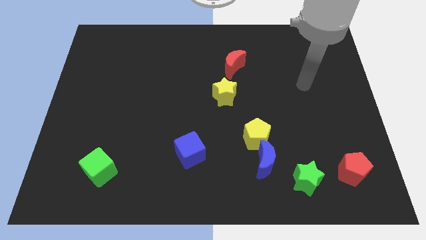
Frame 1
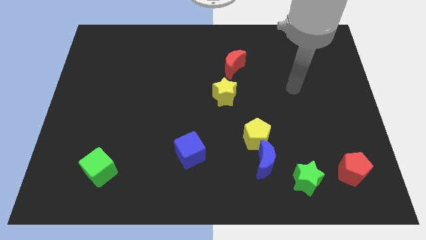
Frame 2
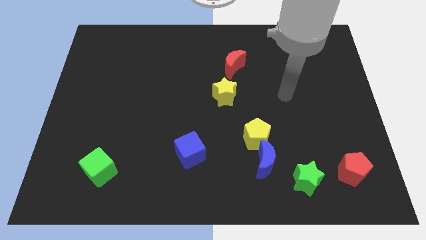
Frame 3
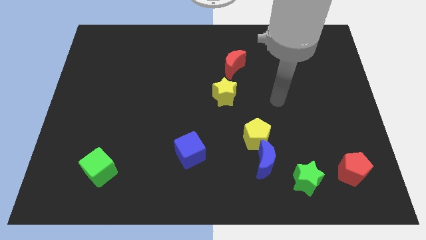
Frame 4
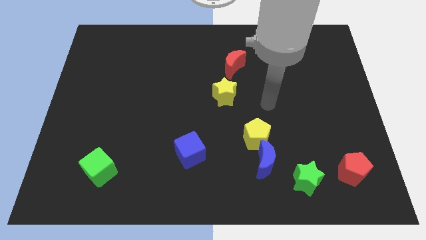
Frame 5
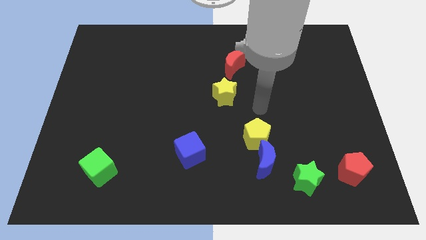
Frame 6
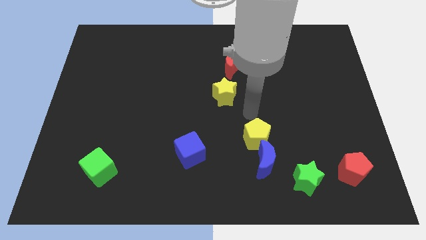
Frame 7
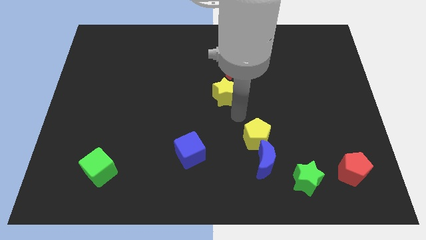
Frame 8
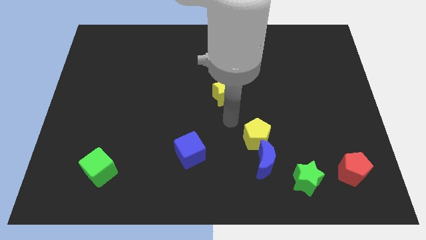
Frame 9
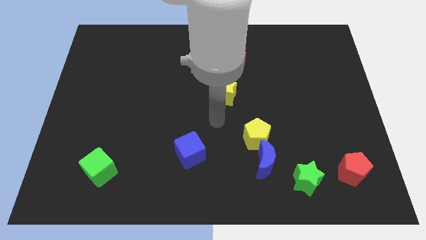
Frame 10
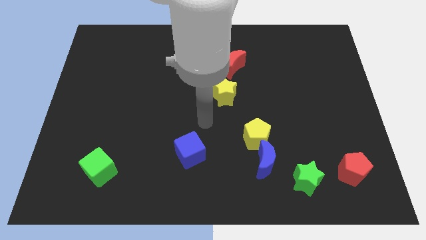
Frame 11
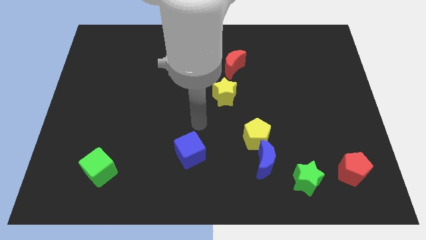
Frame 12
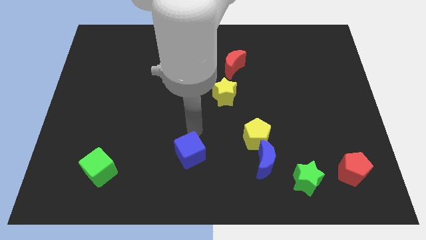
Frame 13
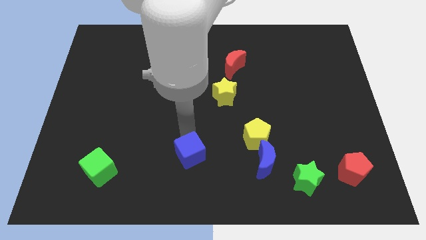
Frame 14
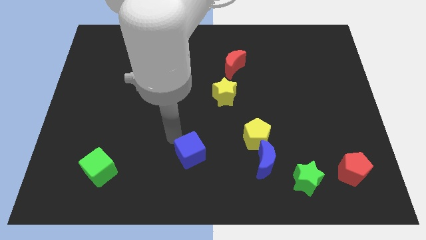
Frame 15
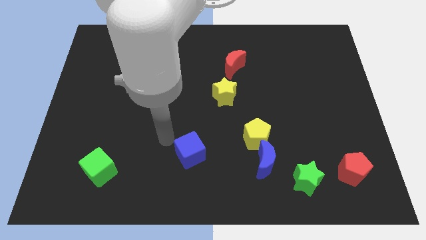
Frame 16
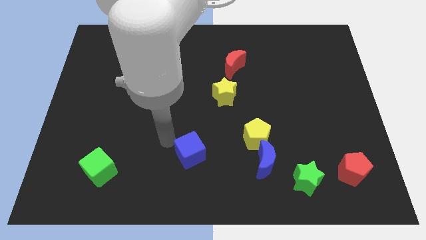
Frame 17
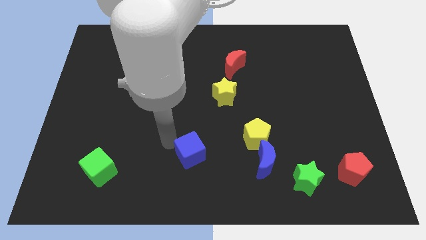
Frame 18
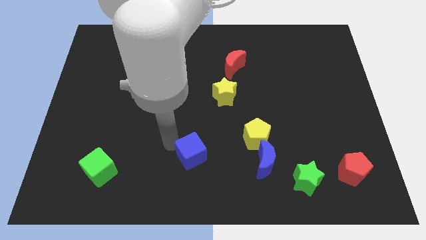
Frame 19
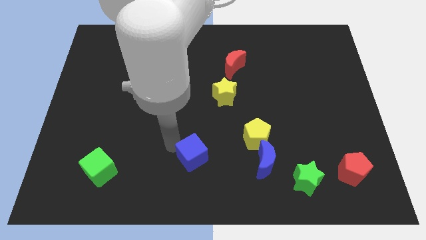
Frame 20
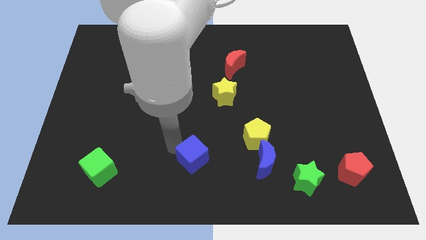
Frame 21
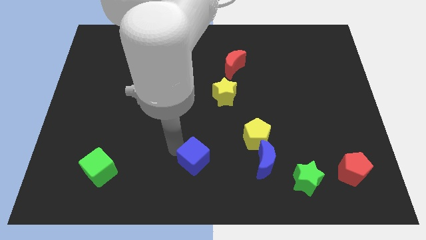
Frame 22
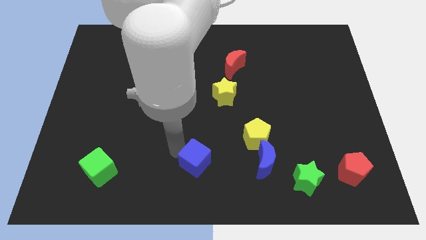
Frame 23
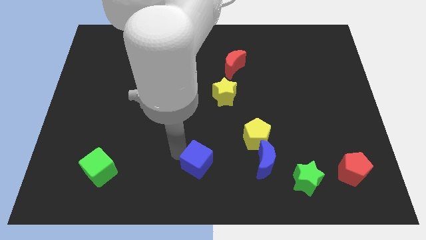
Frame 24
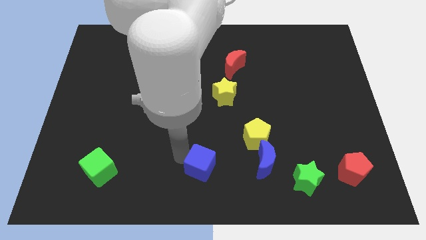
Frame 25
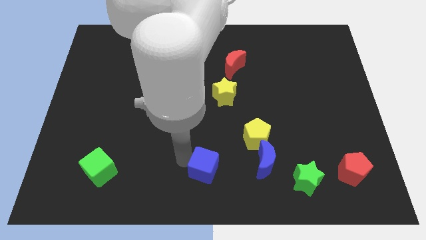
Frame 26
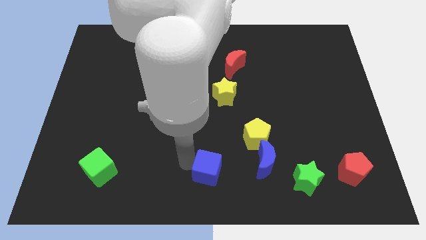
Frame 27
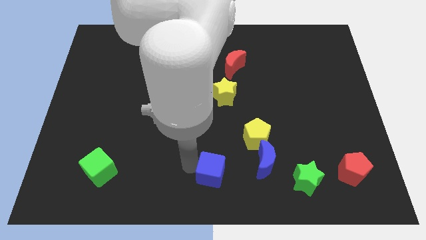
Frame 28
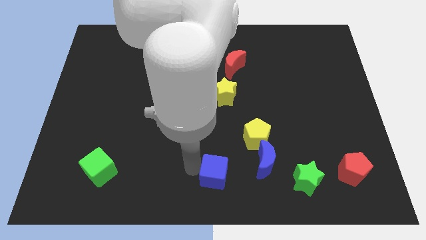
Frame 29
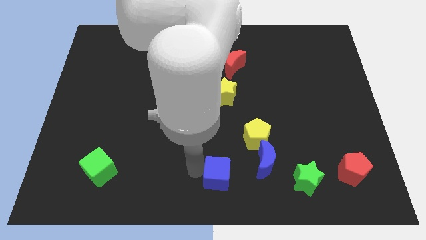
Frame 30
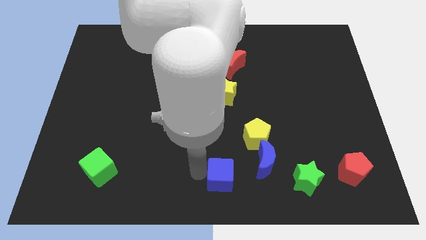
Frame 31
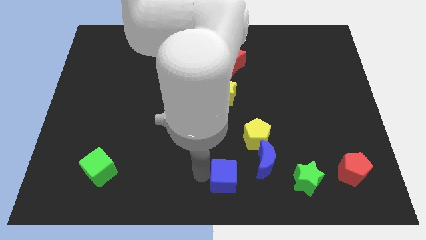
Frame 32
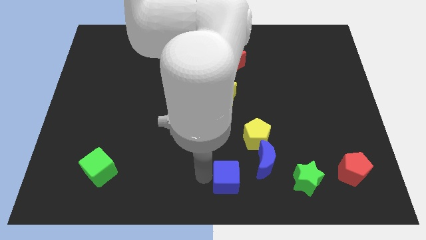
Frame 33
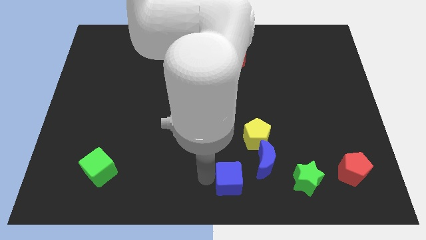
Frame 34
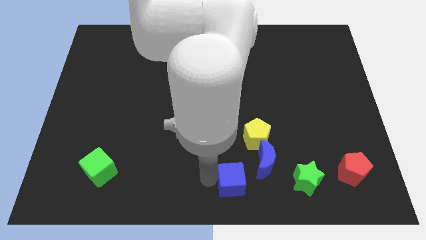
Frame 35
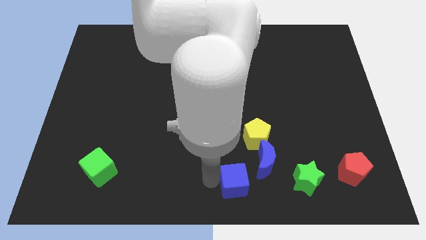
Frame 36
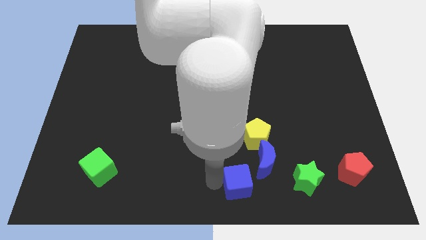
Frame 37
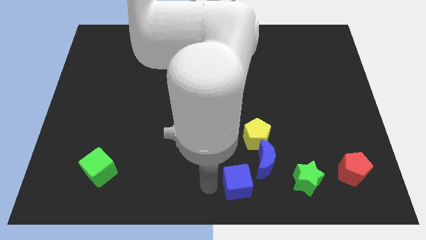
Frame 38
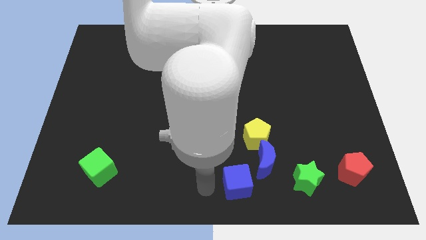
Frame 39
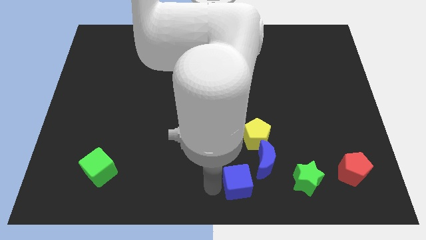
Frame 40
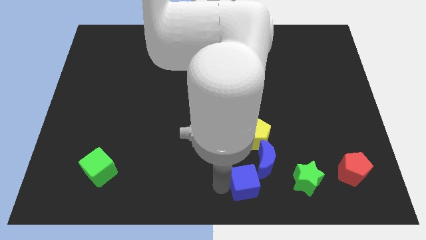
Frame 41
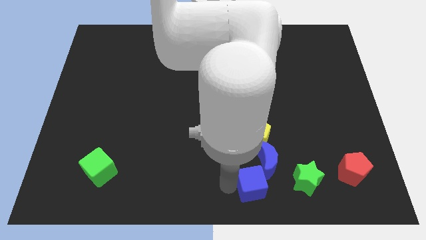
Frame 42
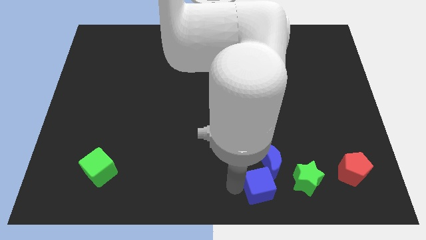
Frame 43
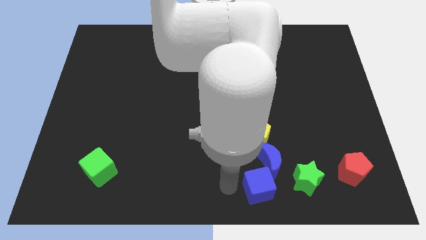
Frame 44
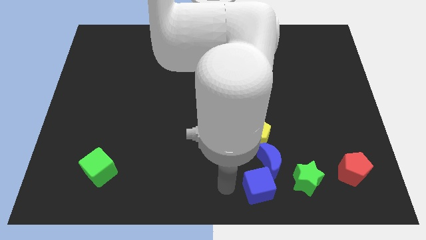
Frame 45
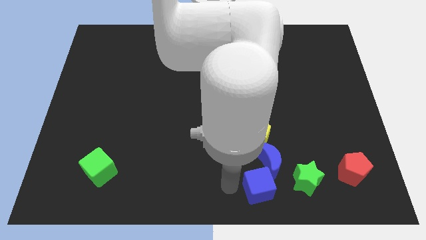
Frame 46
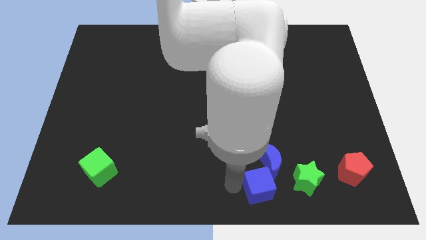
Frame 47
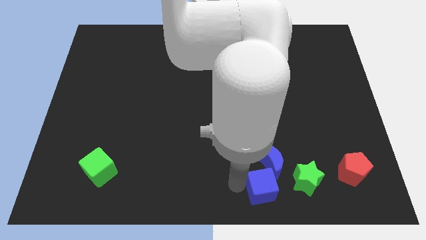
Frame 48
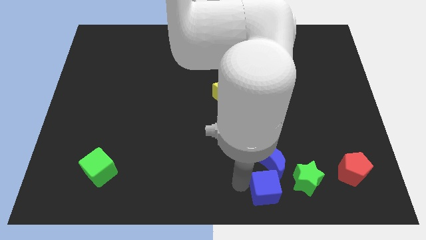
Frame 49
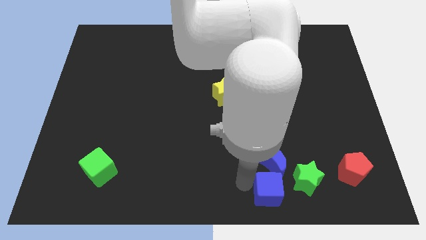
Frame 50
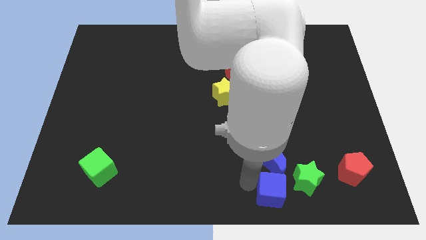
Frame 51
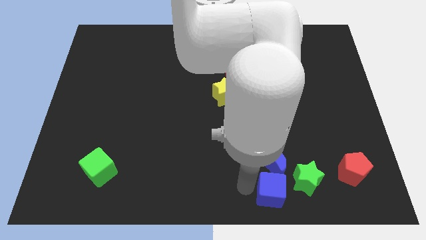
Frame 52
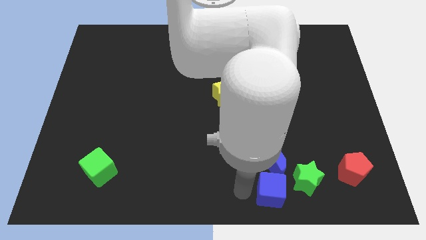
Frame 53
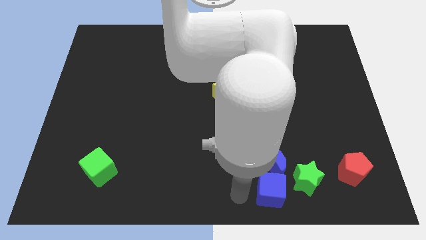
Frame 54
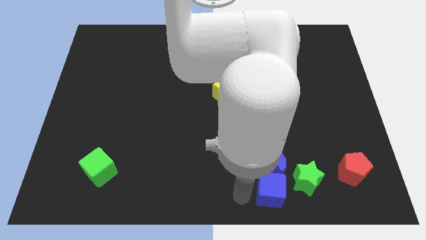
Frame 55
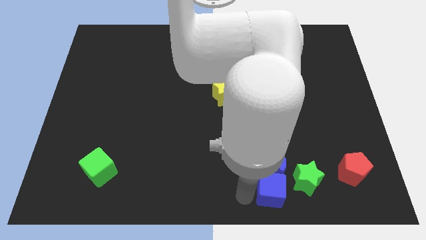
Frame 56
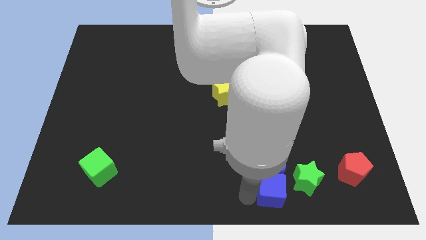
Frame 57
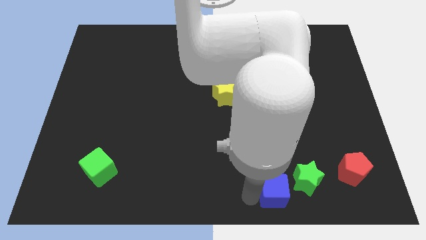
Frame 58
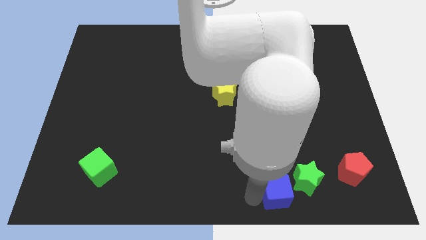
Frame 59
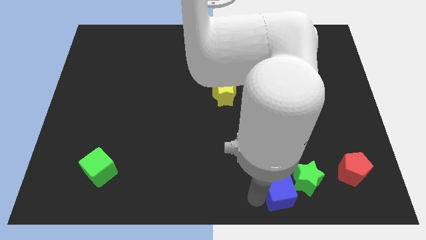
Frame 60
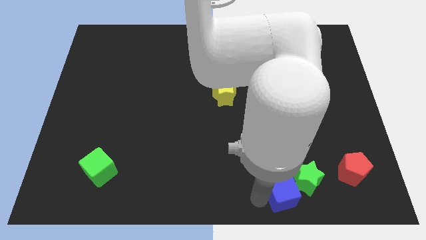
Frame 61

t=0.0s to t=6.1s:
put the blue cube close to the green star

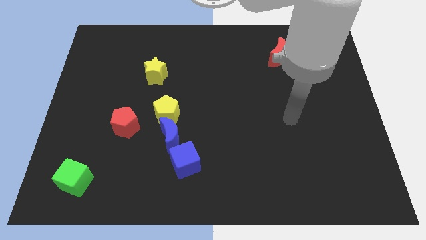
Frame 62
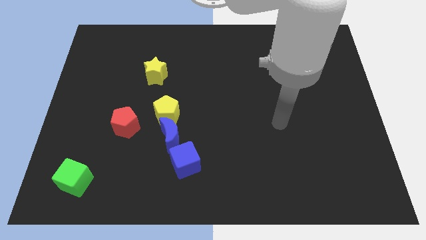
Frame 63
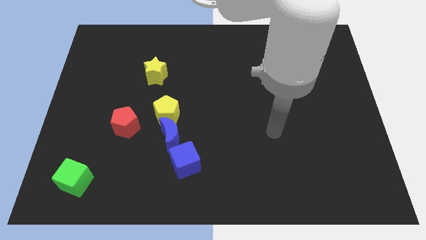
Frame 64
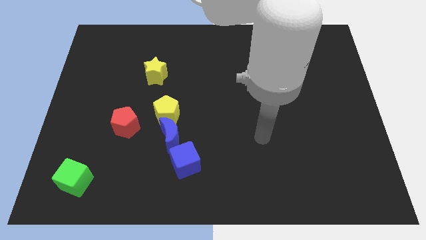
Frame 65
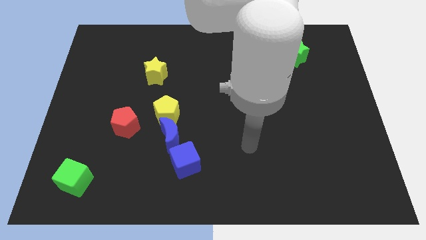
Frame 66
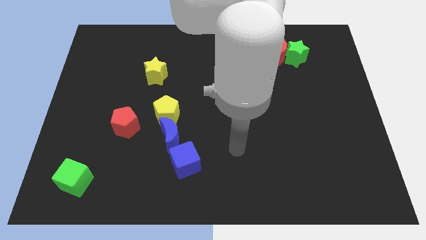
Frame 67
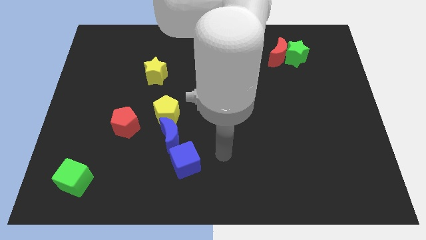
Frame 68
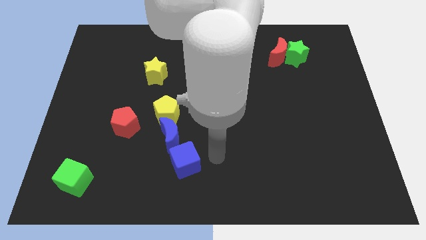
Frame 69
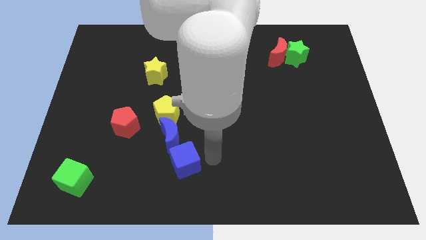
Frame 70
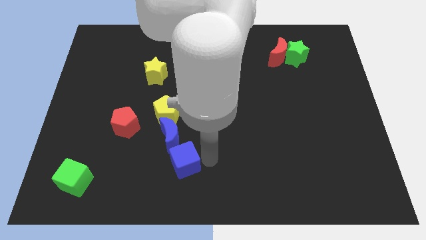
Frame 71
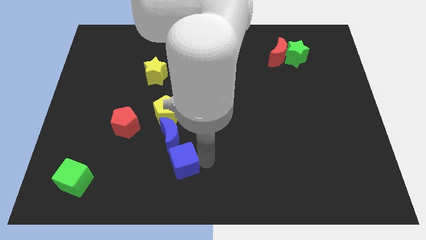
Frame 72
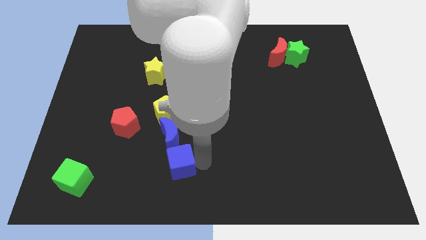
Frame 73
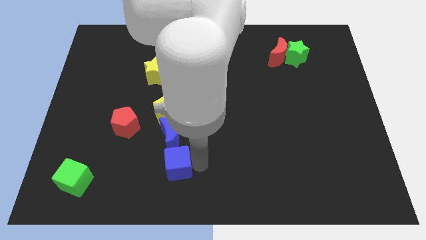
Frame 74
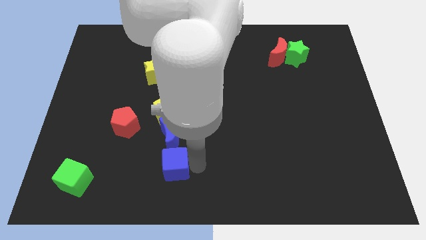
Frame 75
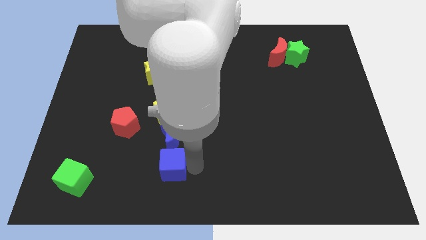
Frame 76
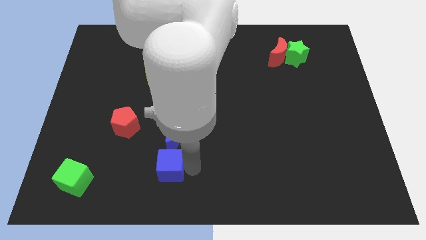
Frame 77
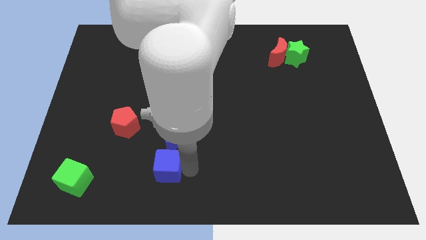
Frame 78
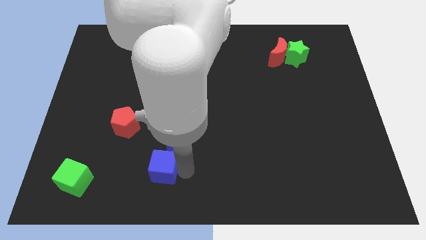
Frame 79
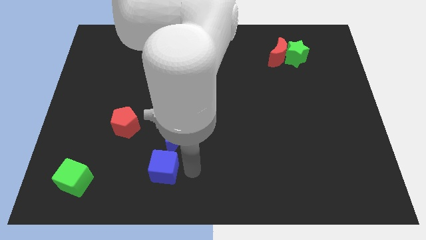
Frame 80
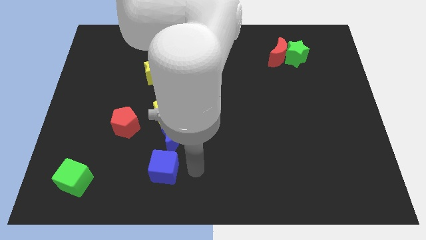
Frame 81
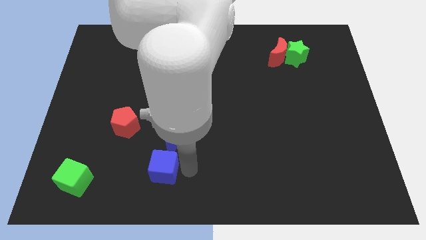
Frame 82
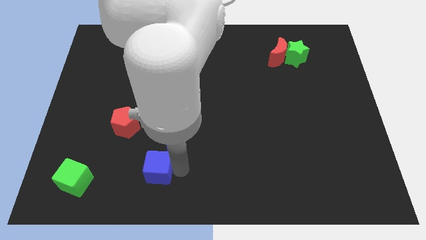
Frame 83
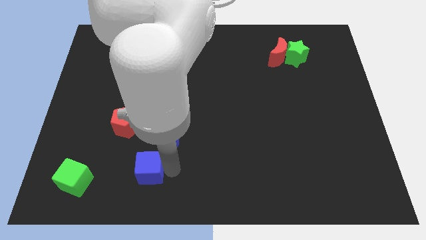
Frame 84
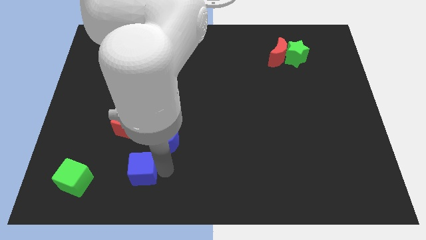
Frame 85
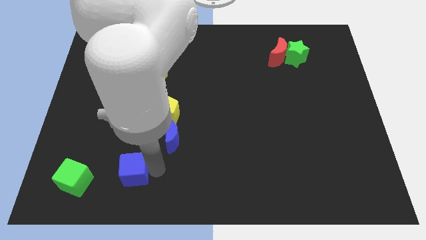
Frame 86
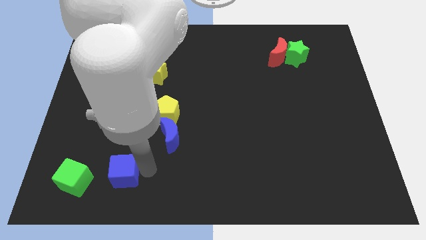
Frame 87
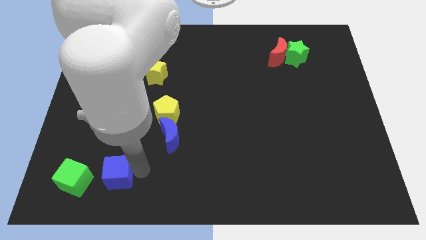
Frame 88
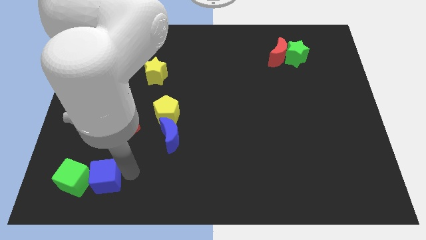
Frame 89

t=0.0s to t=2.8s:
put the blue cube towards the green cube
